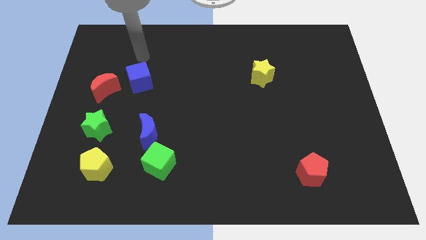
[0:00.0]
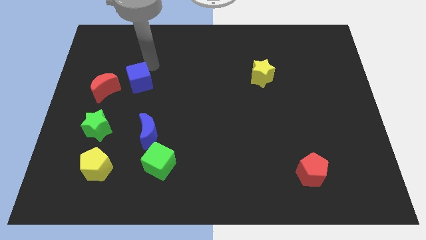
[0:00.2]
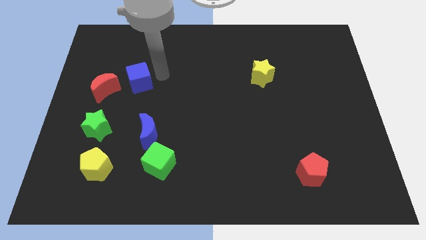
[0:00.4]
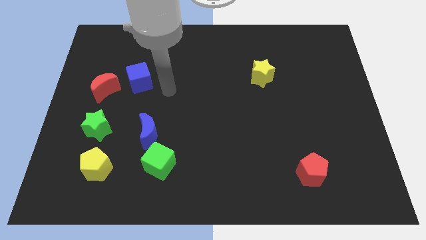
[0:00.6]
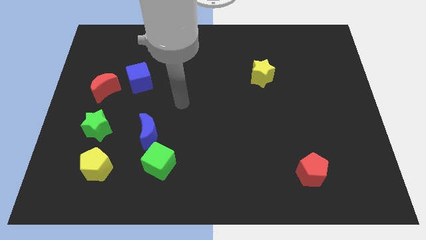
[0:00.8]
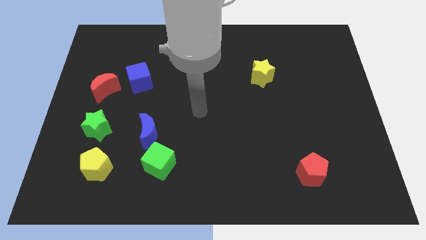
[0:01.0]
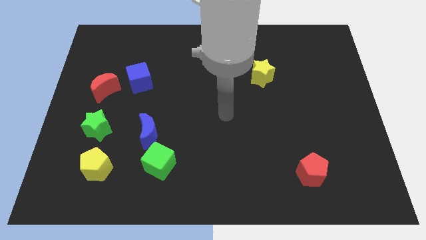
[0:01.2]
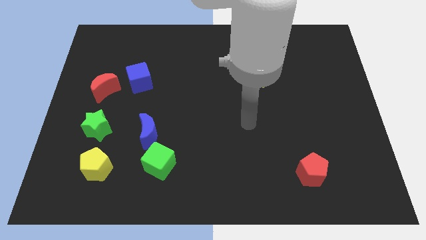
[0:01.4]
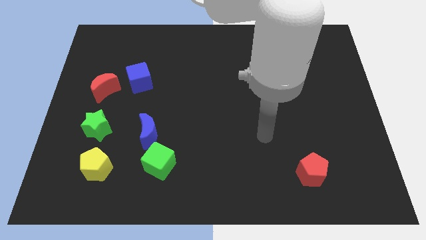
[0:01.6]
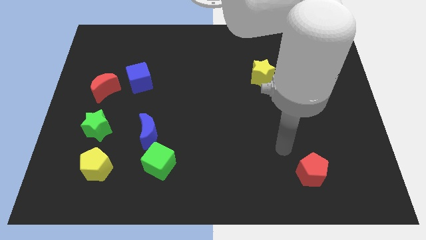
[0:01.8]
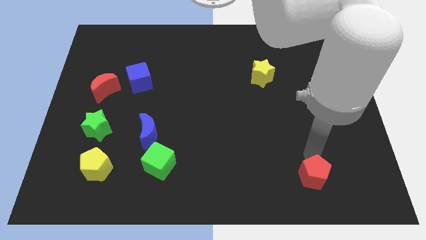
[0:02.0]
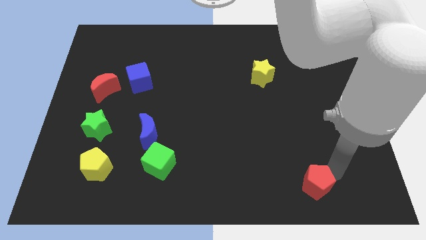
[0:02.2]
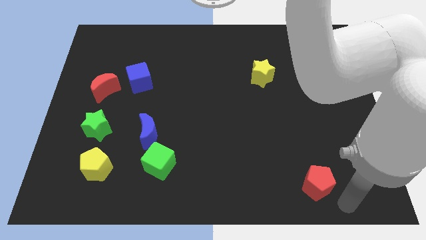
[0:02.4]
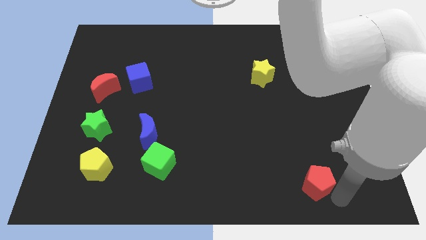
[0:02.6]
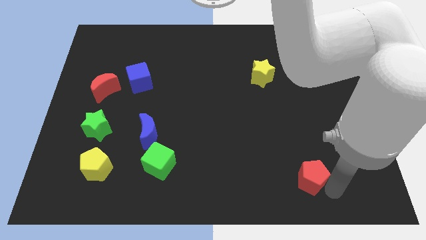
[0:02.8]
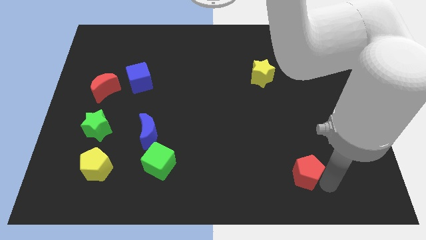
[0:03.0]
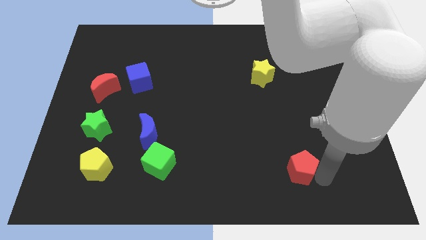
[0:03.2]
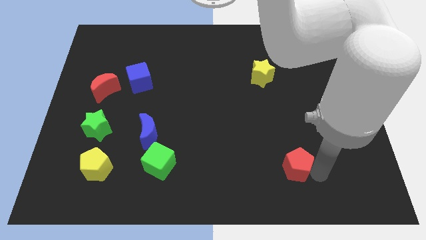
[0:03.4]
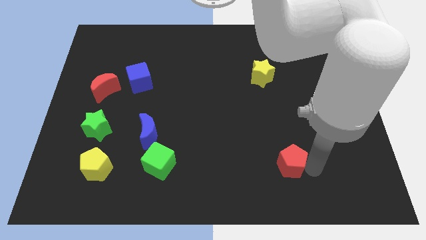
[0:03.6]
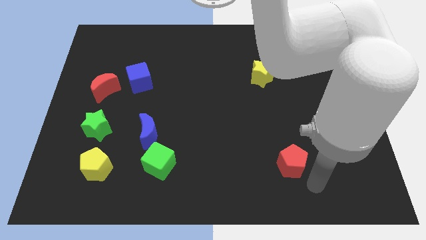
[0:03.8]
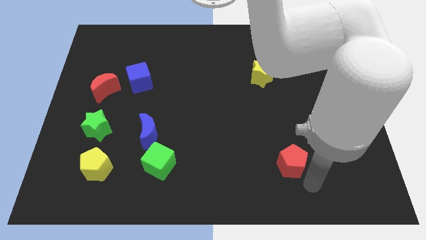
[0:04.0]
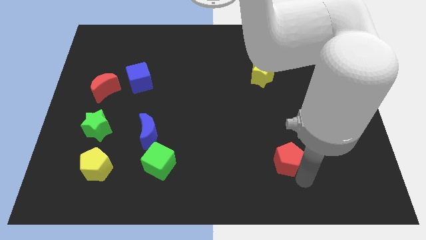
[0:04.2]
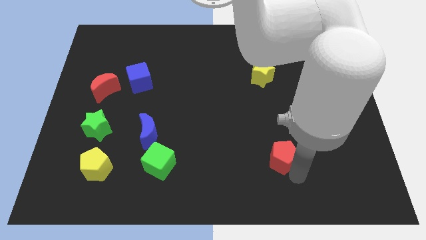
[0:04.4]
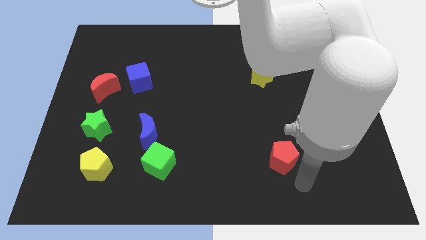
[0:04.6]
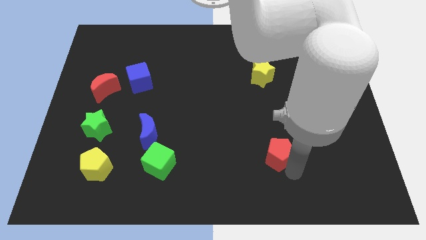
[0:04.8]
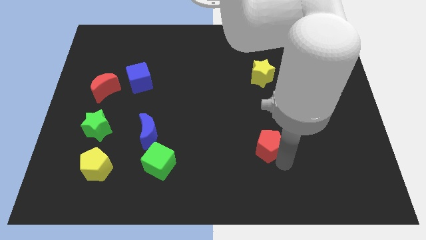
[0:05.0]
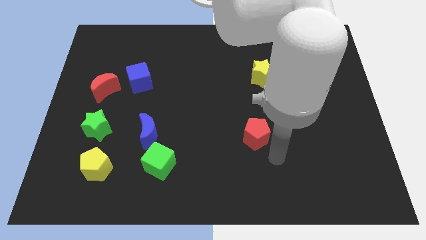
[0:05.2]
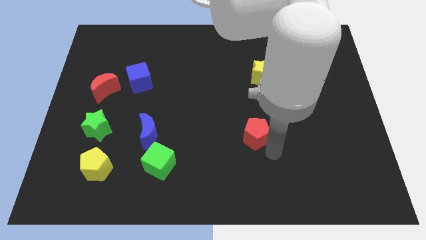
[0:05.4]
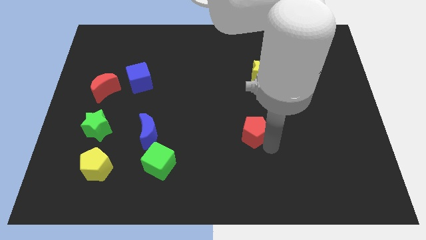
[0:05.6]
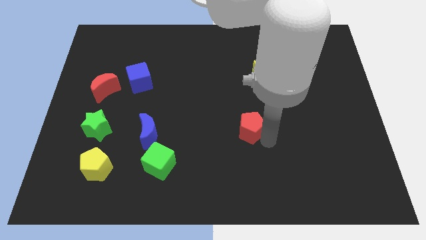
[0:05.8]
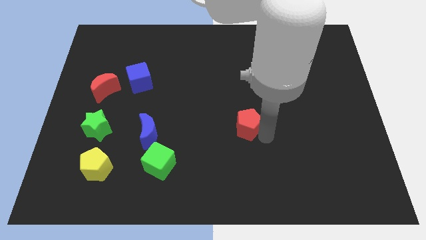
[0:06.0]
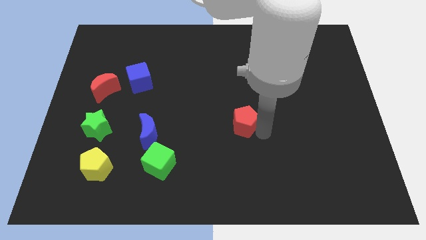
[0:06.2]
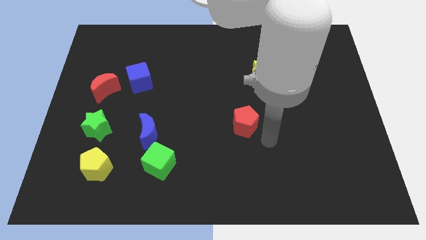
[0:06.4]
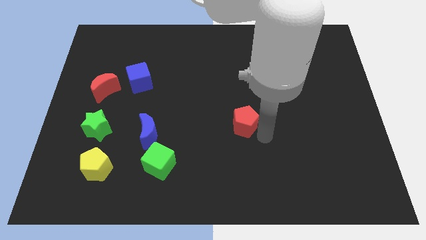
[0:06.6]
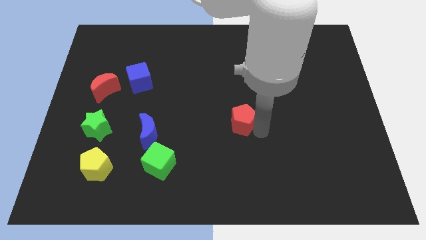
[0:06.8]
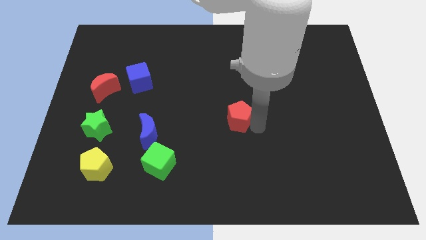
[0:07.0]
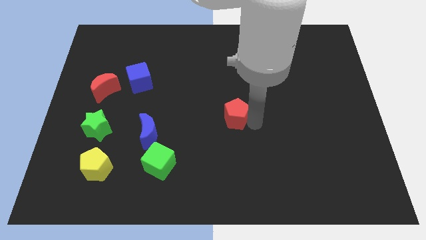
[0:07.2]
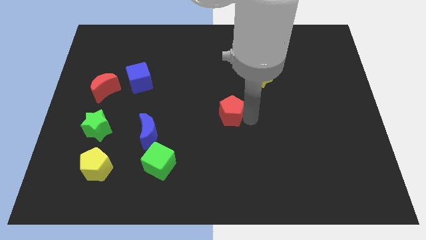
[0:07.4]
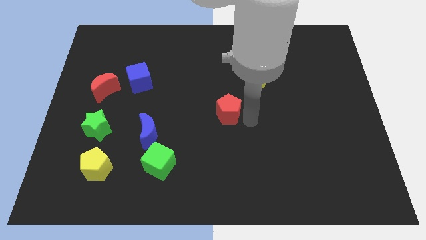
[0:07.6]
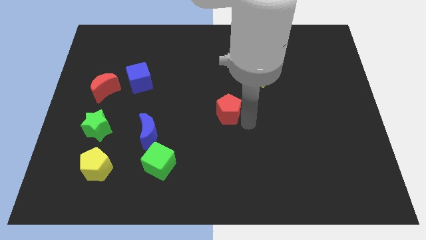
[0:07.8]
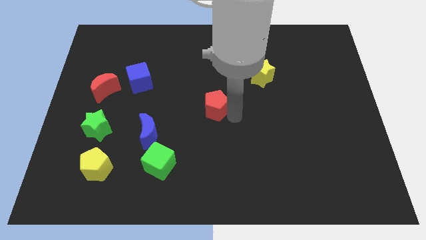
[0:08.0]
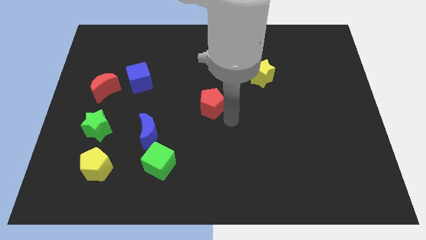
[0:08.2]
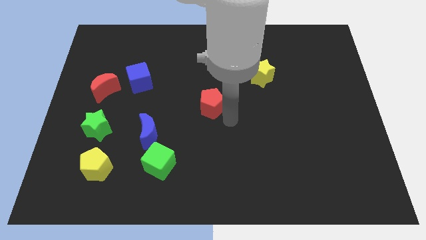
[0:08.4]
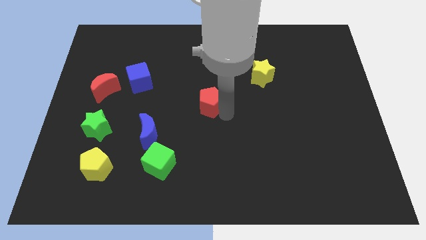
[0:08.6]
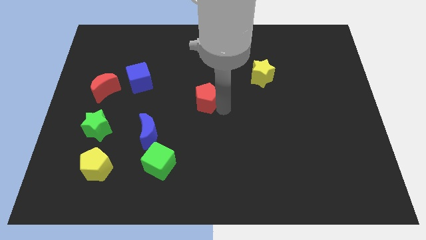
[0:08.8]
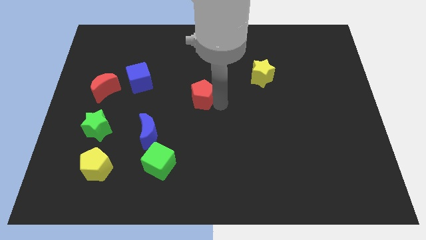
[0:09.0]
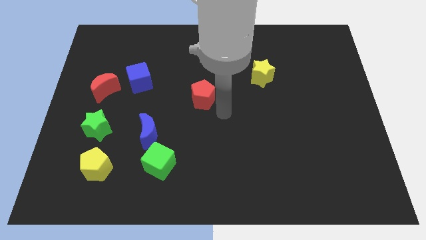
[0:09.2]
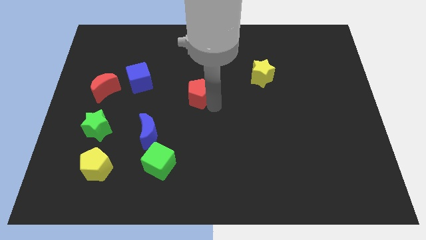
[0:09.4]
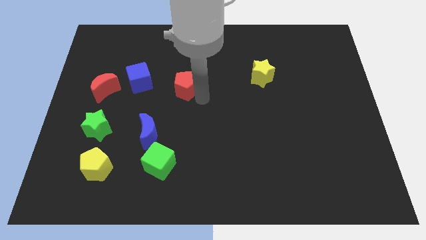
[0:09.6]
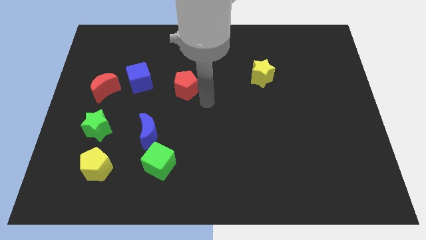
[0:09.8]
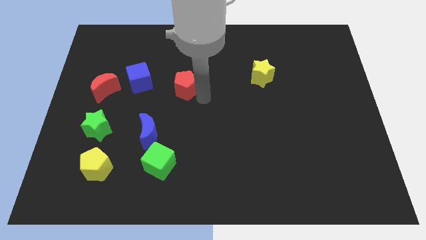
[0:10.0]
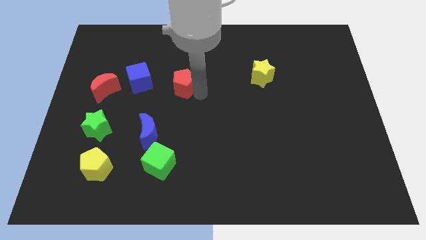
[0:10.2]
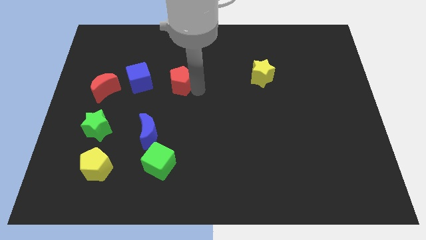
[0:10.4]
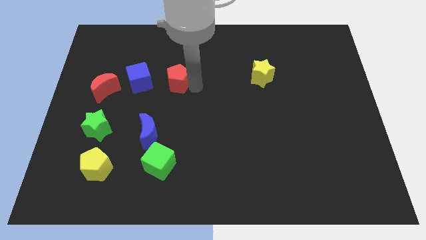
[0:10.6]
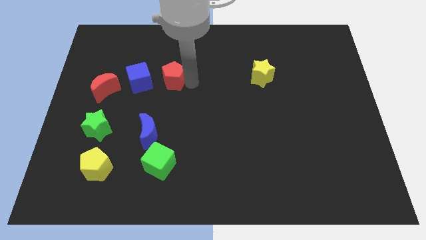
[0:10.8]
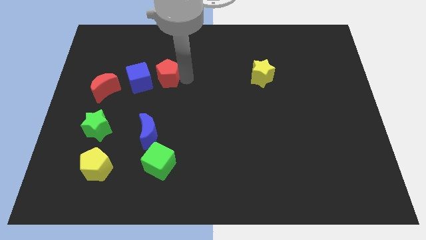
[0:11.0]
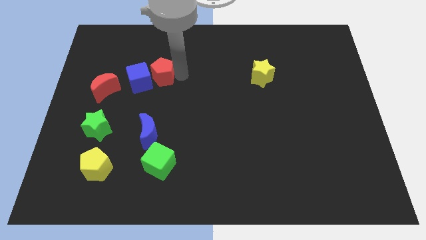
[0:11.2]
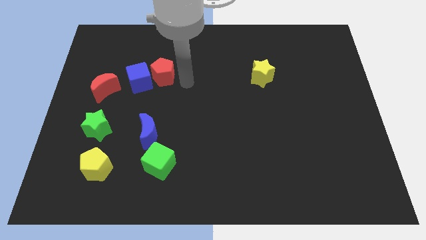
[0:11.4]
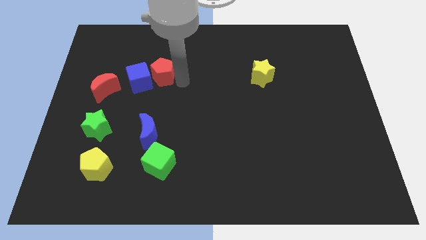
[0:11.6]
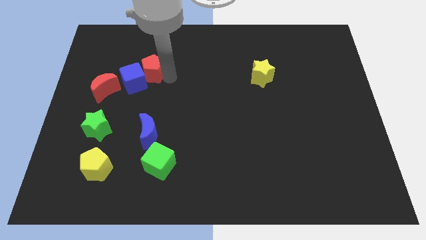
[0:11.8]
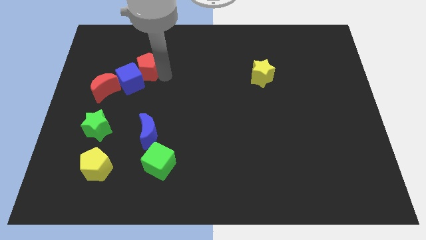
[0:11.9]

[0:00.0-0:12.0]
push the red pentagon diagonally up and to the right of the red moon

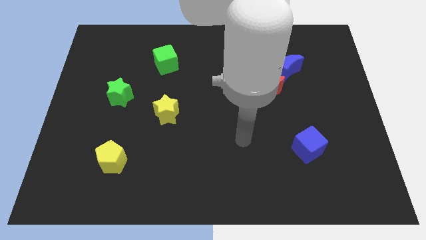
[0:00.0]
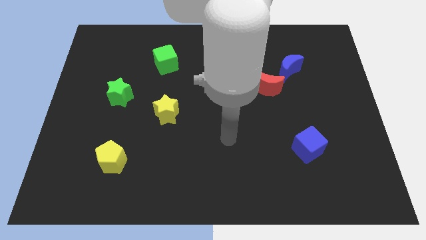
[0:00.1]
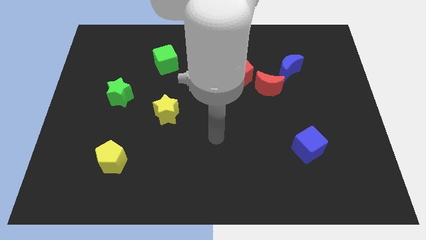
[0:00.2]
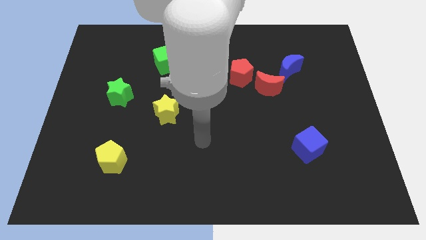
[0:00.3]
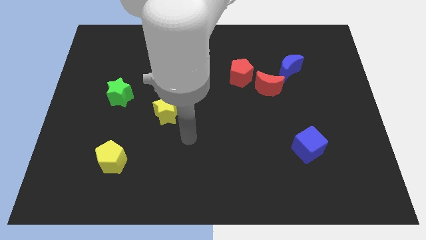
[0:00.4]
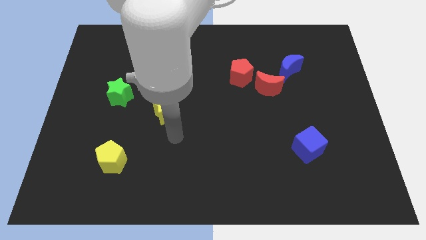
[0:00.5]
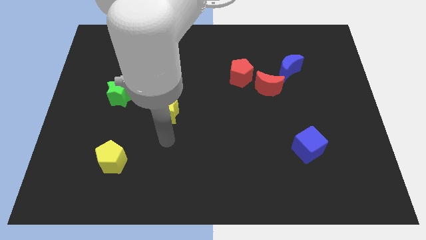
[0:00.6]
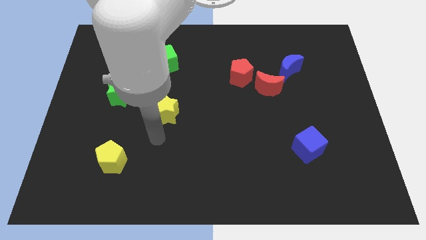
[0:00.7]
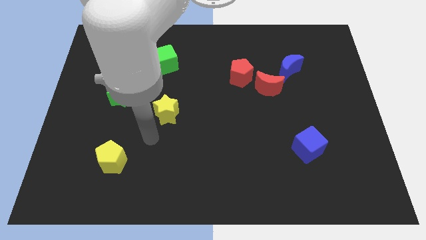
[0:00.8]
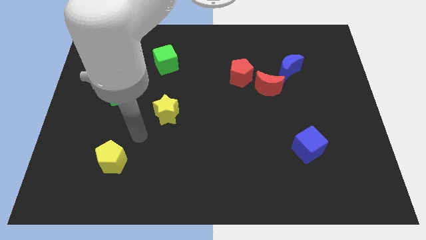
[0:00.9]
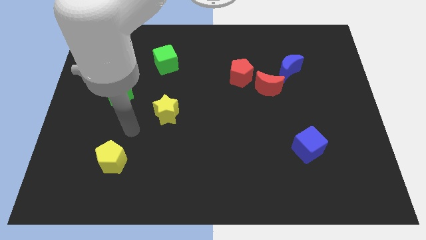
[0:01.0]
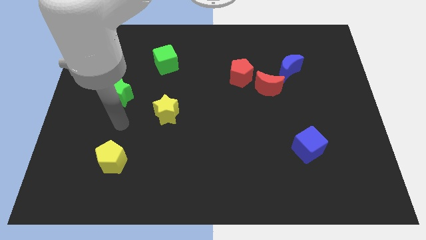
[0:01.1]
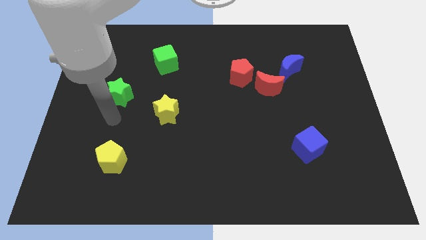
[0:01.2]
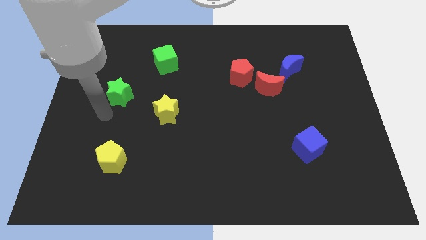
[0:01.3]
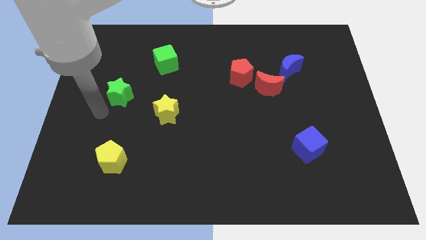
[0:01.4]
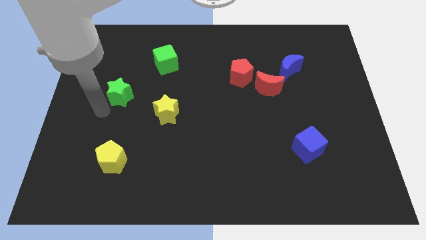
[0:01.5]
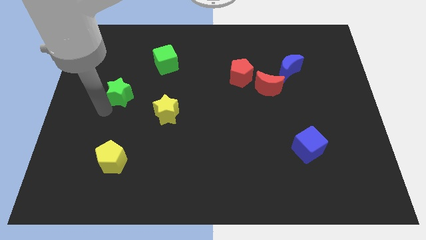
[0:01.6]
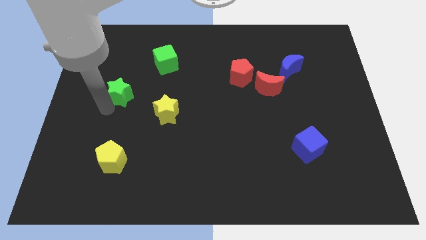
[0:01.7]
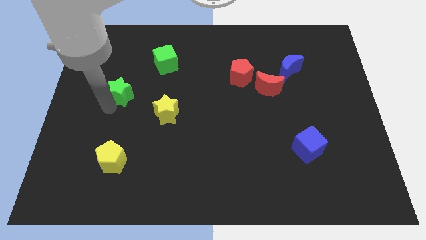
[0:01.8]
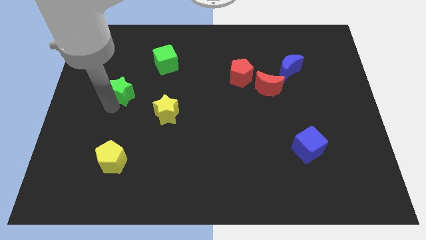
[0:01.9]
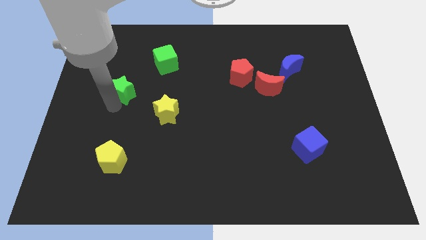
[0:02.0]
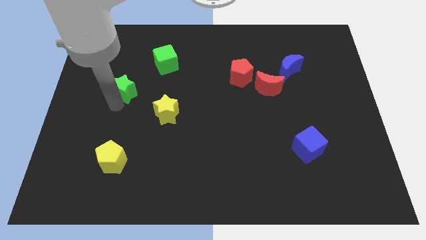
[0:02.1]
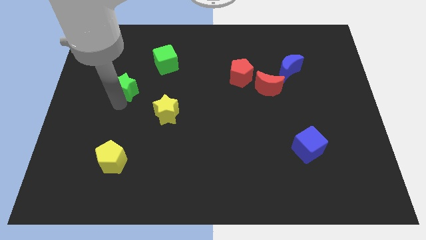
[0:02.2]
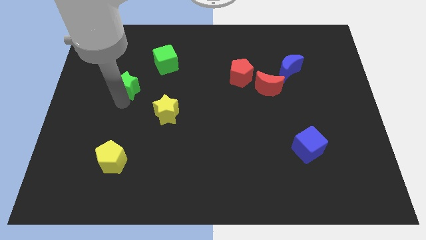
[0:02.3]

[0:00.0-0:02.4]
slide the green star to the bottom left of the green cube
